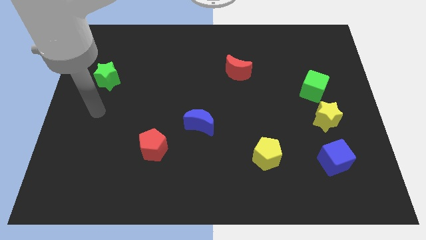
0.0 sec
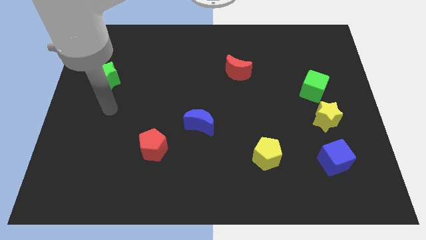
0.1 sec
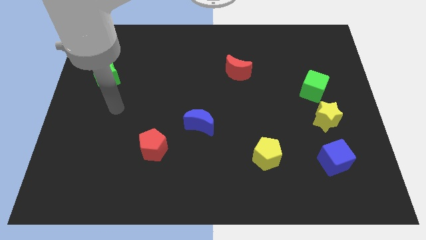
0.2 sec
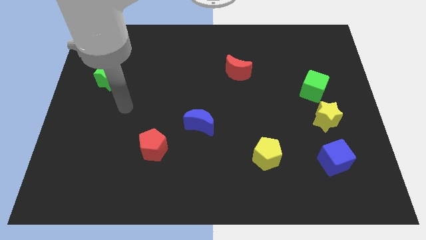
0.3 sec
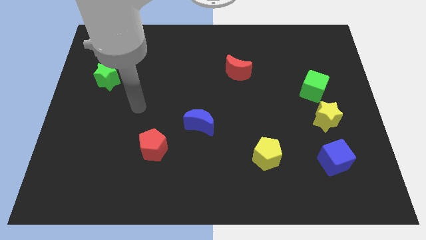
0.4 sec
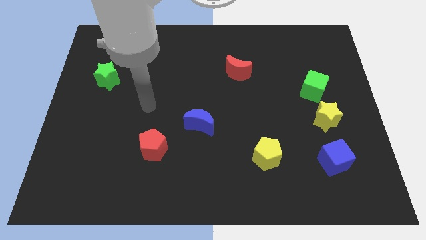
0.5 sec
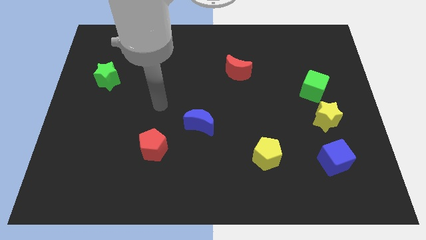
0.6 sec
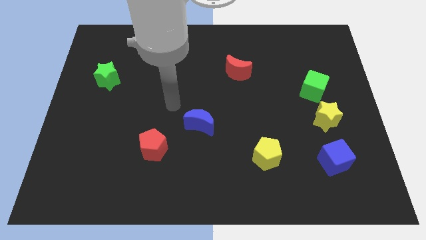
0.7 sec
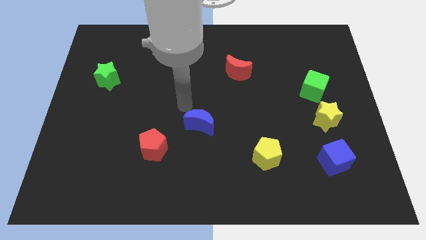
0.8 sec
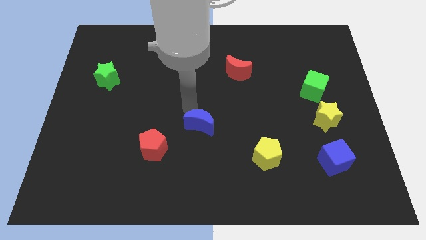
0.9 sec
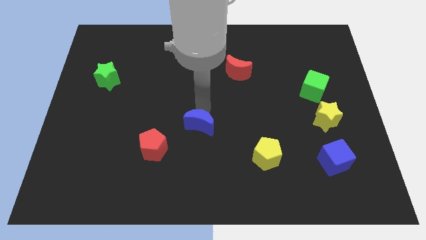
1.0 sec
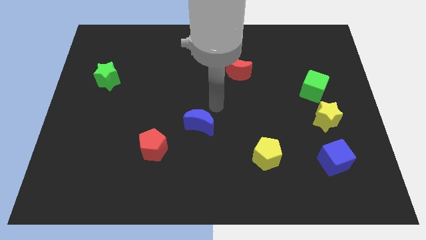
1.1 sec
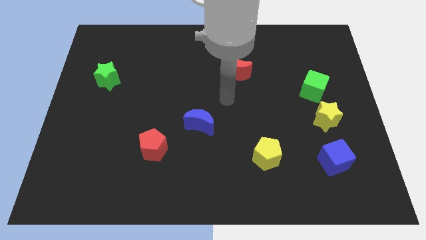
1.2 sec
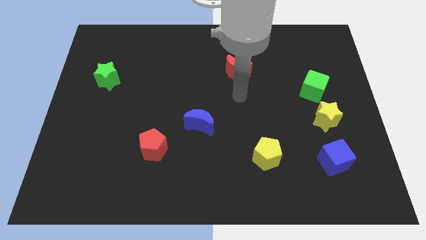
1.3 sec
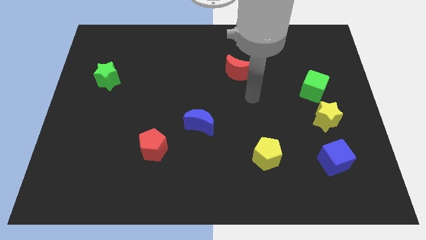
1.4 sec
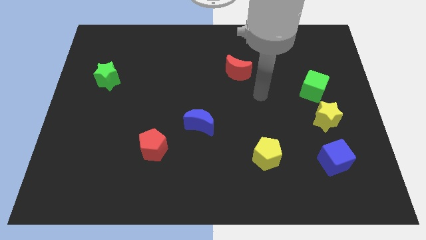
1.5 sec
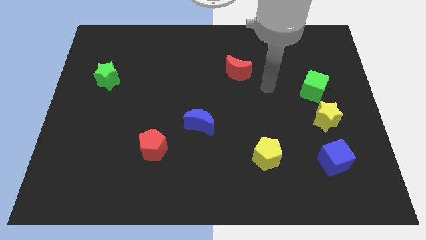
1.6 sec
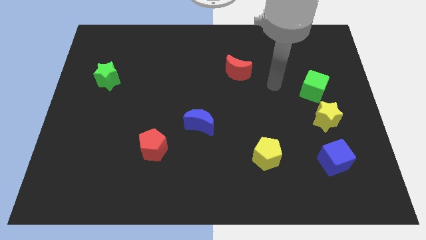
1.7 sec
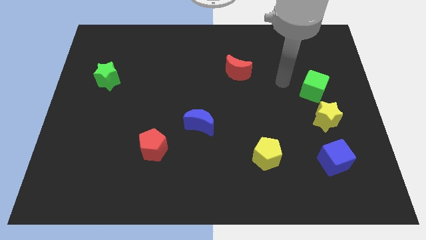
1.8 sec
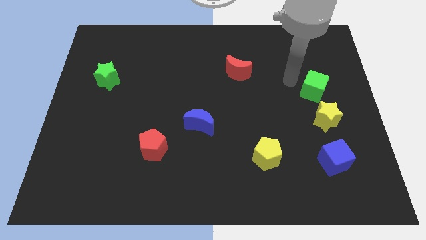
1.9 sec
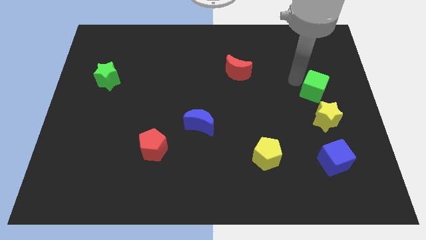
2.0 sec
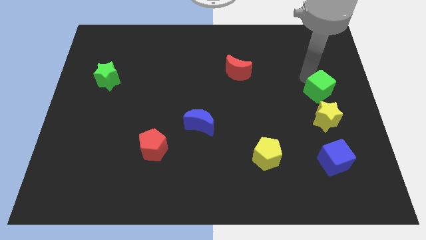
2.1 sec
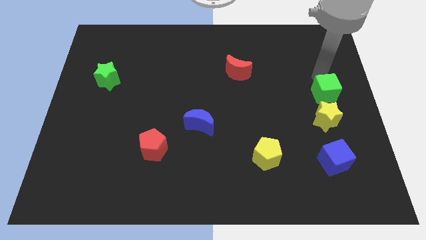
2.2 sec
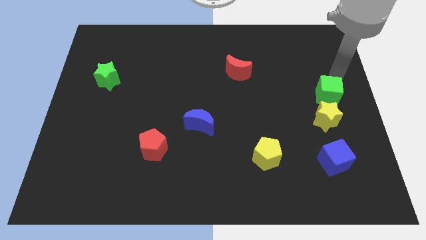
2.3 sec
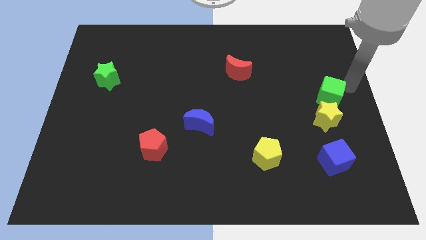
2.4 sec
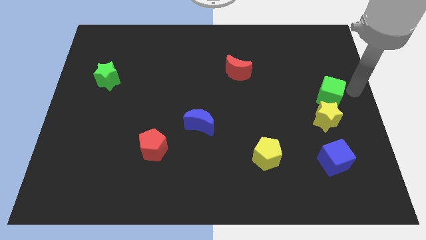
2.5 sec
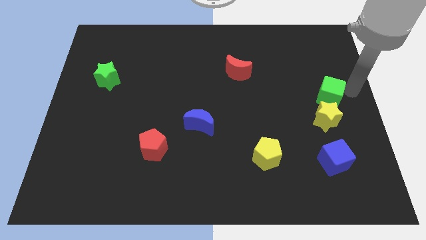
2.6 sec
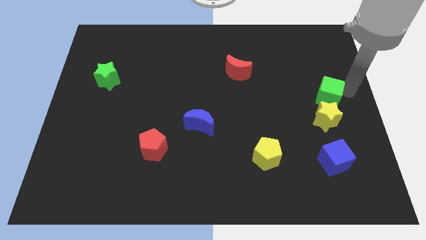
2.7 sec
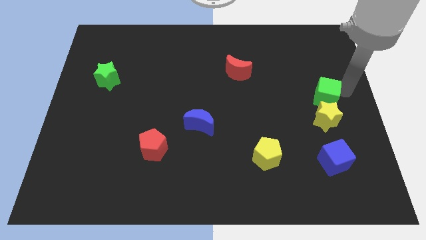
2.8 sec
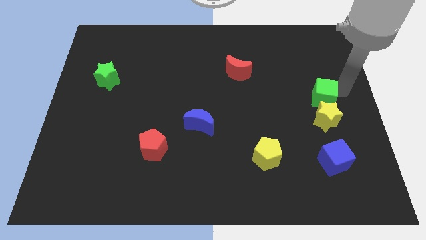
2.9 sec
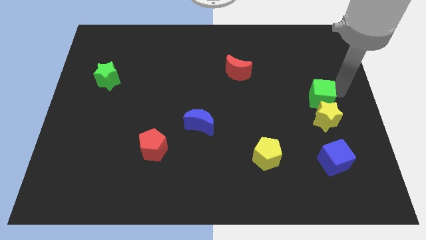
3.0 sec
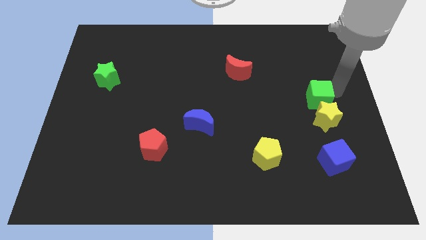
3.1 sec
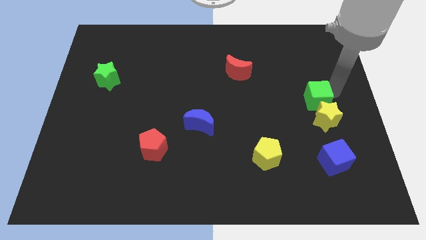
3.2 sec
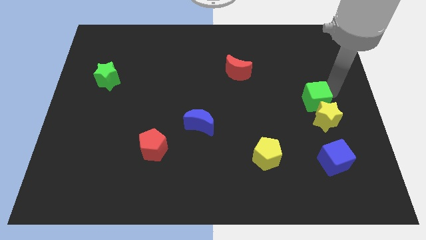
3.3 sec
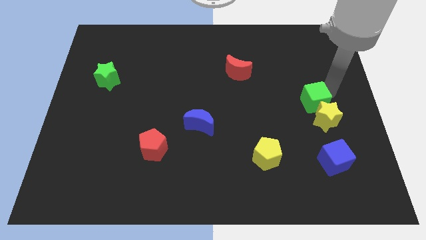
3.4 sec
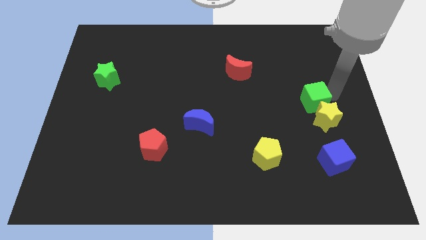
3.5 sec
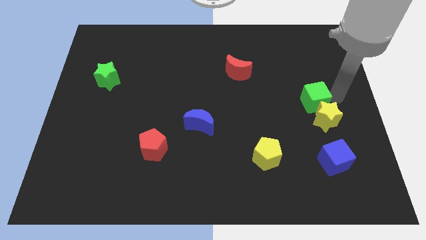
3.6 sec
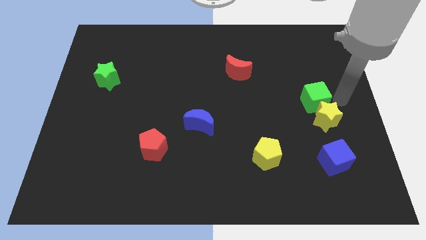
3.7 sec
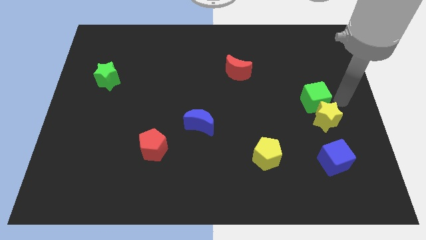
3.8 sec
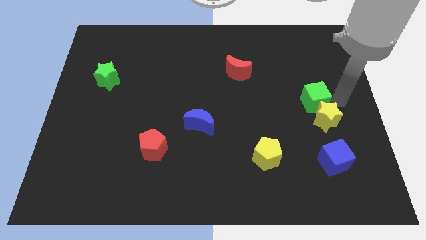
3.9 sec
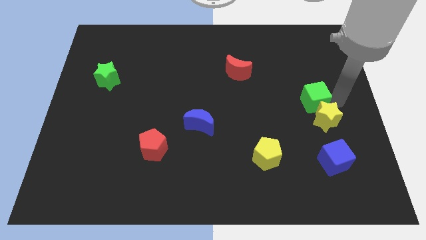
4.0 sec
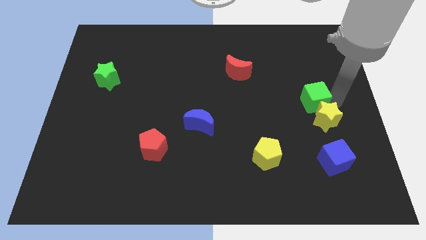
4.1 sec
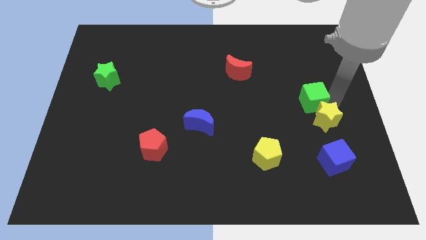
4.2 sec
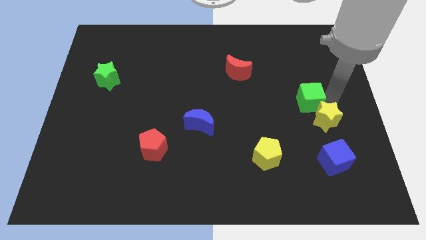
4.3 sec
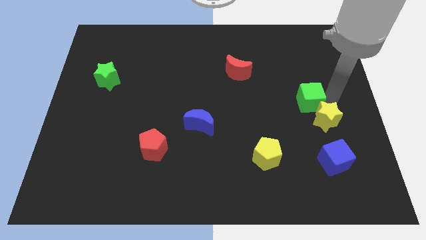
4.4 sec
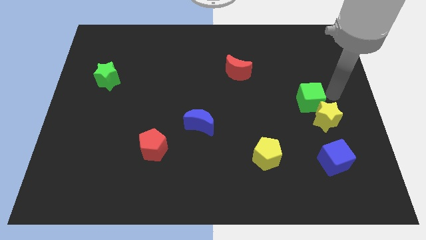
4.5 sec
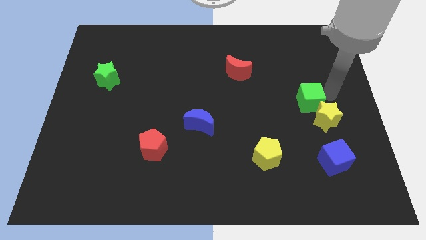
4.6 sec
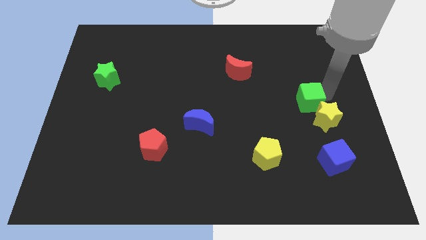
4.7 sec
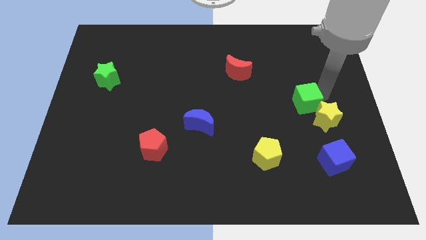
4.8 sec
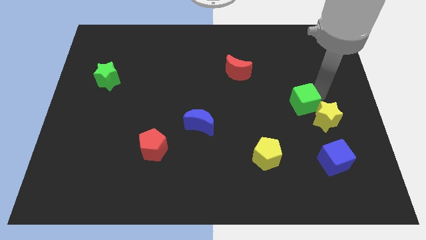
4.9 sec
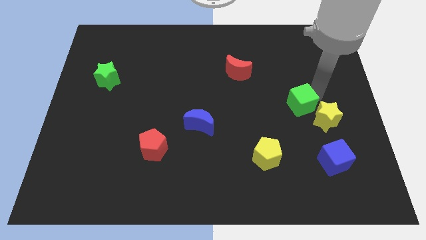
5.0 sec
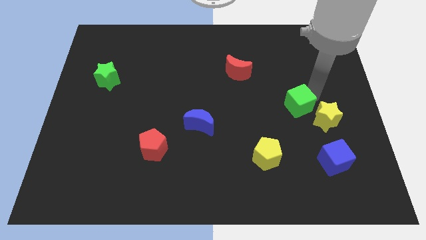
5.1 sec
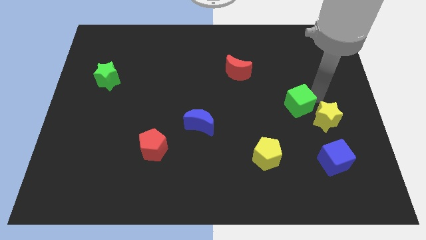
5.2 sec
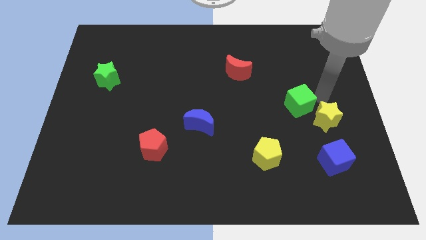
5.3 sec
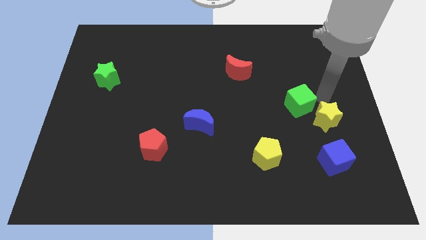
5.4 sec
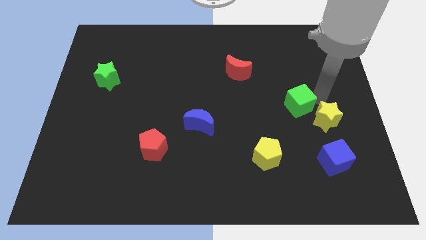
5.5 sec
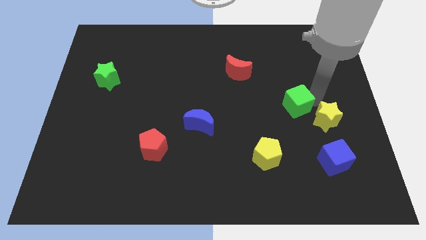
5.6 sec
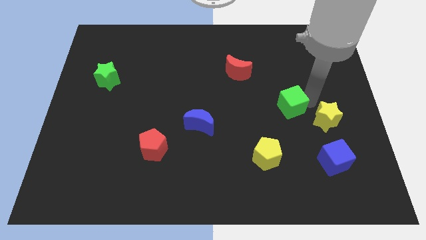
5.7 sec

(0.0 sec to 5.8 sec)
move the green cube a little bit down and to the left

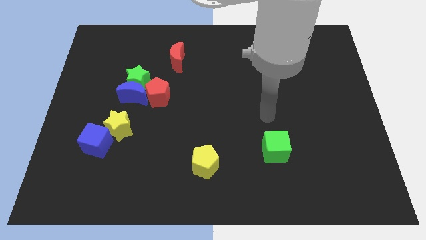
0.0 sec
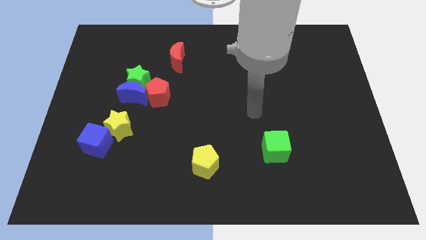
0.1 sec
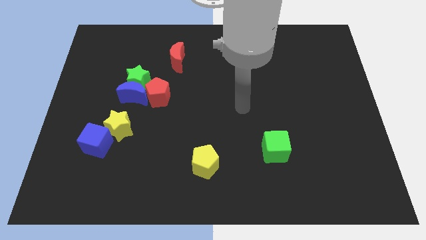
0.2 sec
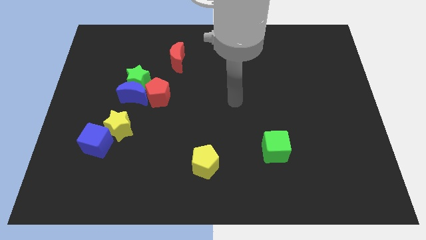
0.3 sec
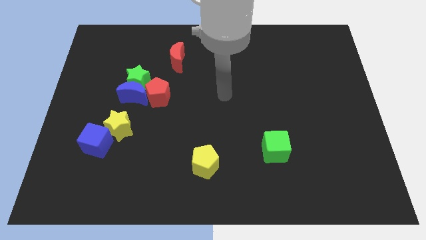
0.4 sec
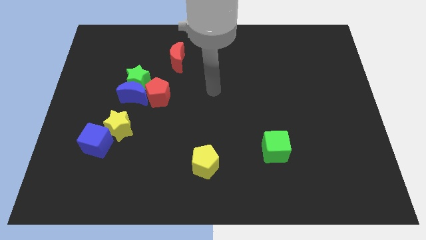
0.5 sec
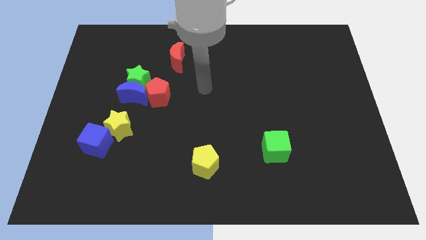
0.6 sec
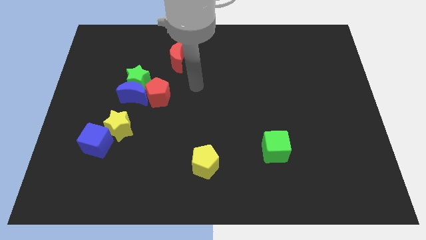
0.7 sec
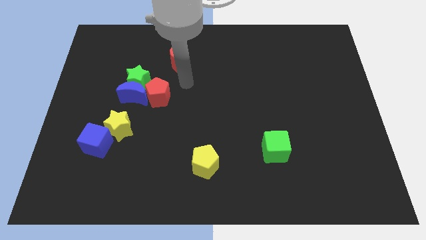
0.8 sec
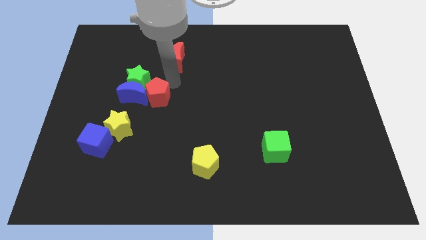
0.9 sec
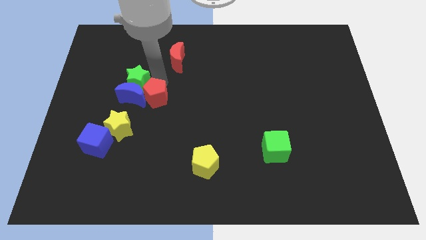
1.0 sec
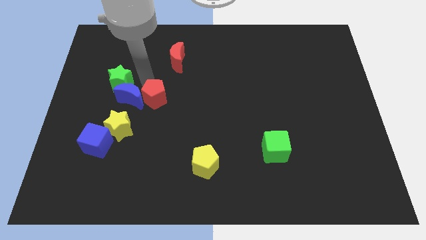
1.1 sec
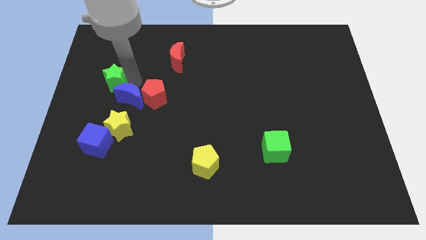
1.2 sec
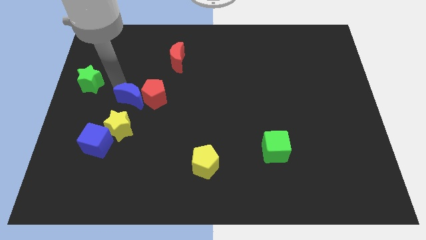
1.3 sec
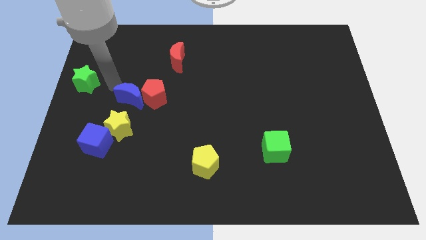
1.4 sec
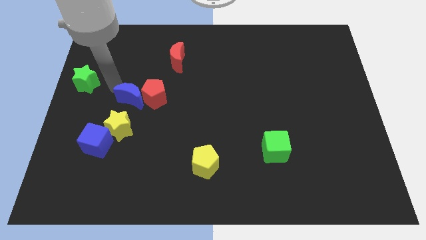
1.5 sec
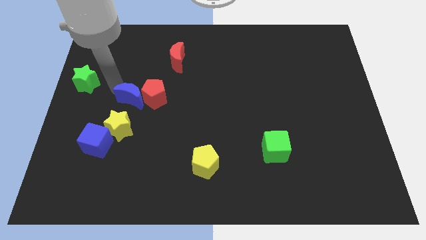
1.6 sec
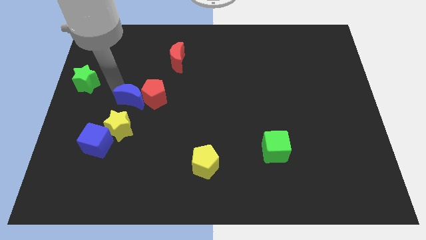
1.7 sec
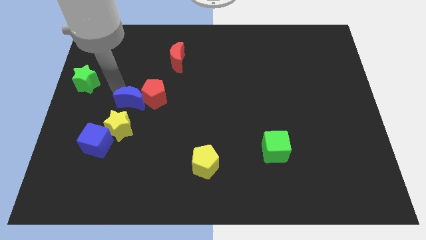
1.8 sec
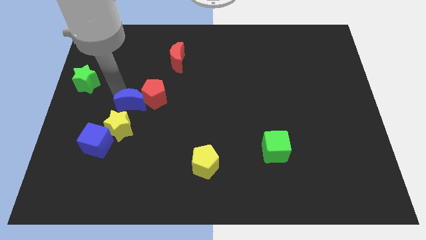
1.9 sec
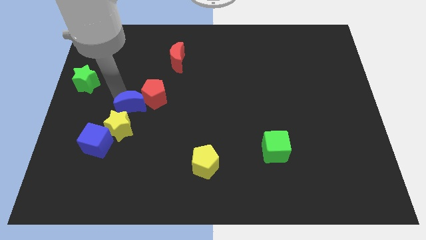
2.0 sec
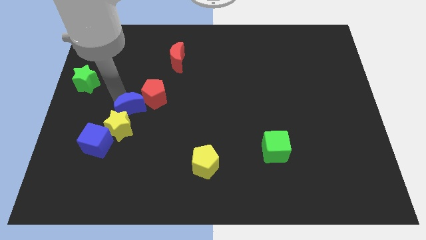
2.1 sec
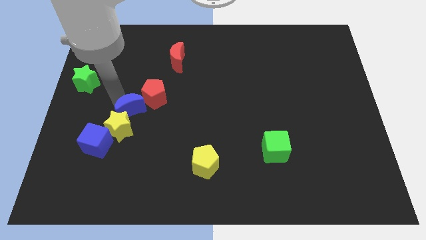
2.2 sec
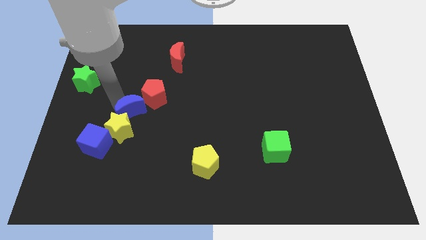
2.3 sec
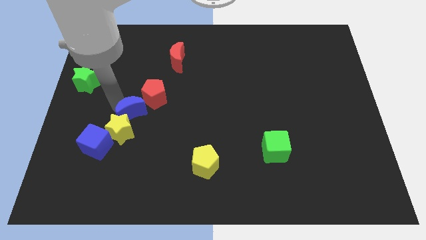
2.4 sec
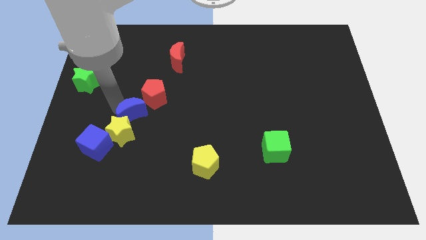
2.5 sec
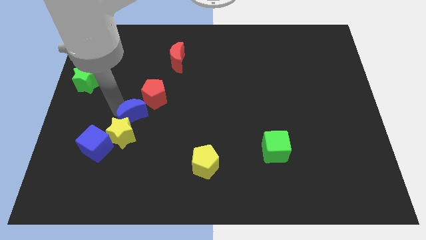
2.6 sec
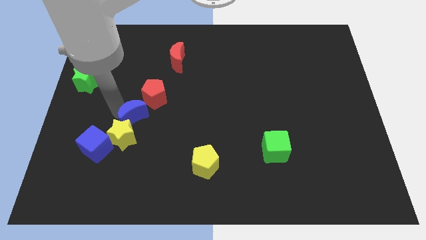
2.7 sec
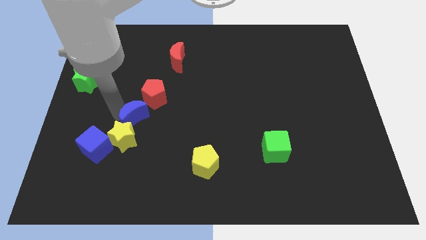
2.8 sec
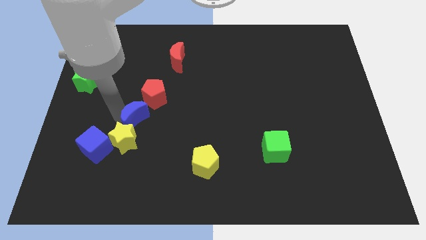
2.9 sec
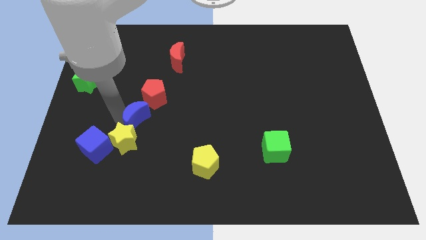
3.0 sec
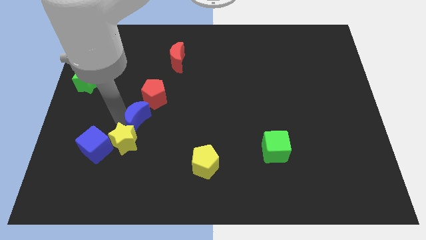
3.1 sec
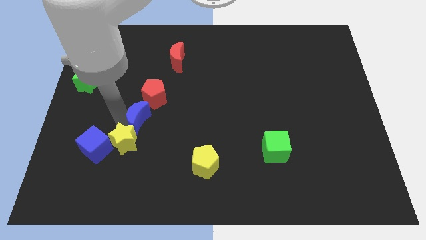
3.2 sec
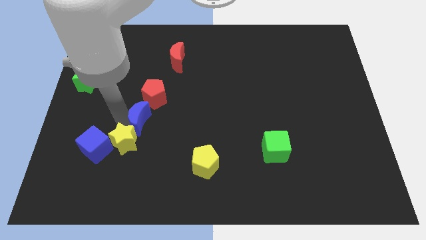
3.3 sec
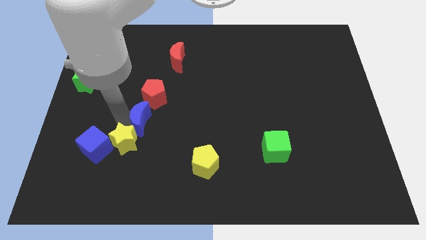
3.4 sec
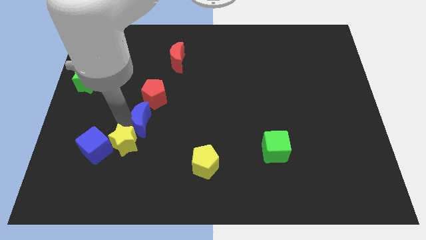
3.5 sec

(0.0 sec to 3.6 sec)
move the blue moon somewhat downwards and to the right
